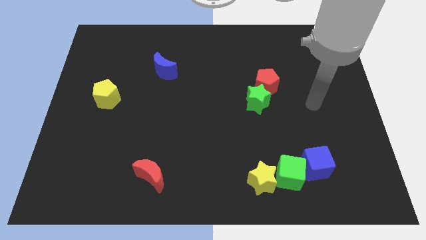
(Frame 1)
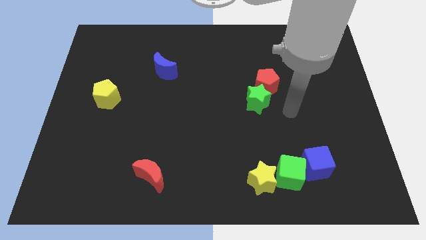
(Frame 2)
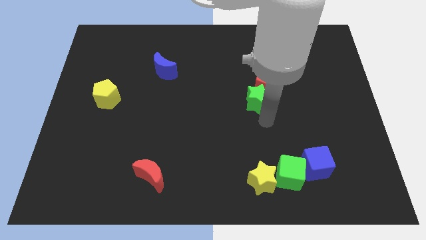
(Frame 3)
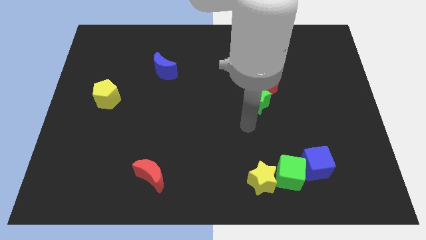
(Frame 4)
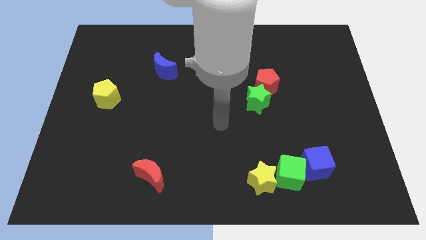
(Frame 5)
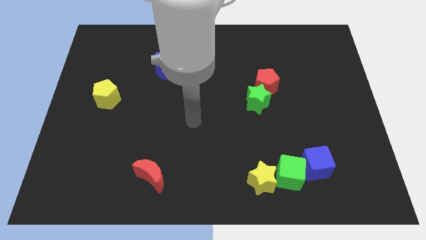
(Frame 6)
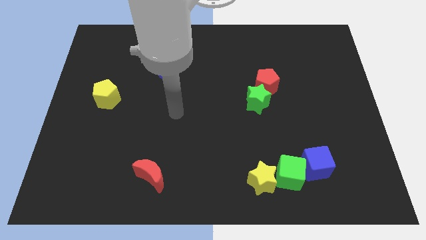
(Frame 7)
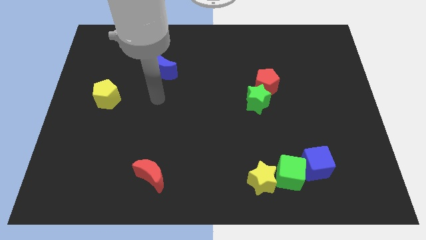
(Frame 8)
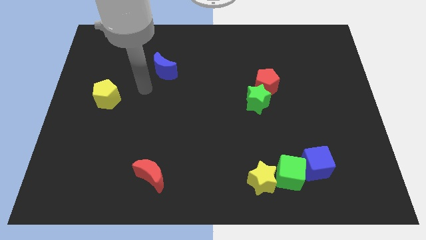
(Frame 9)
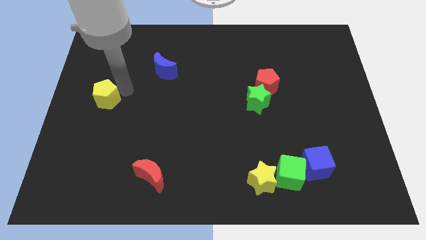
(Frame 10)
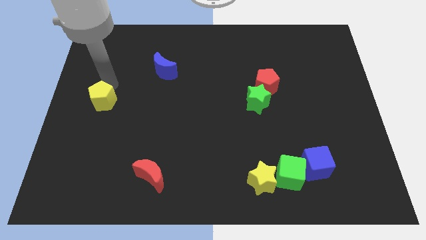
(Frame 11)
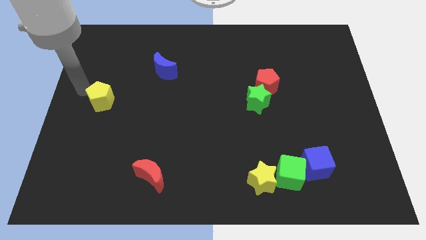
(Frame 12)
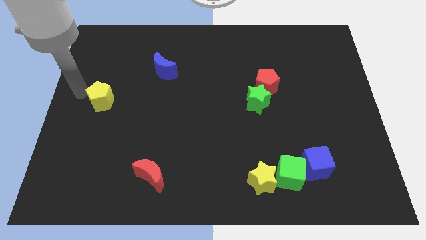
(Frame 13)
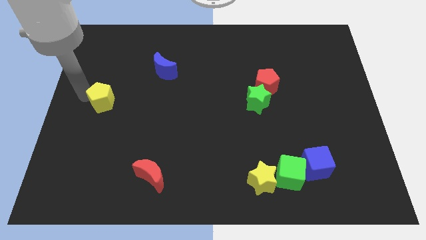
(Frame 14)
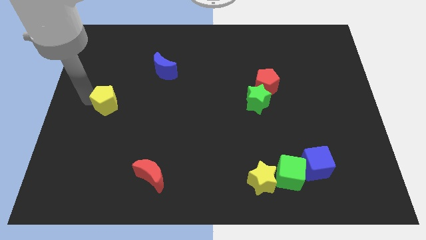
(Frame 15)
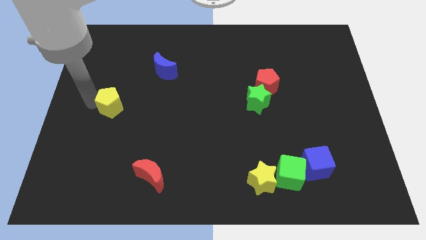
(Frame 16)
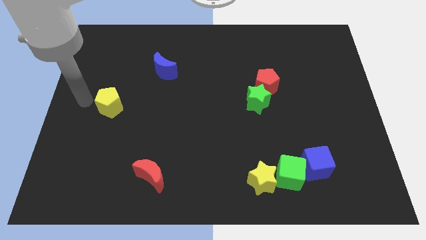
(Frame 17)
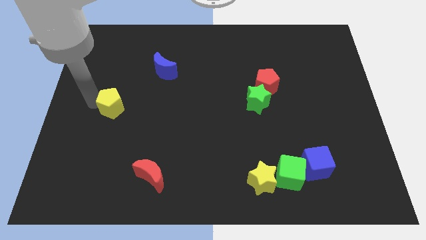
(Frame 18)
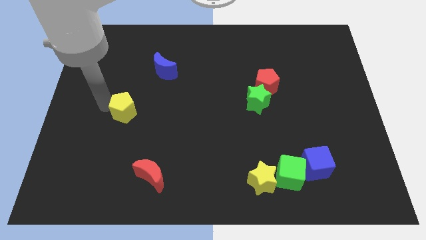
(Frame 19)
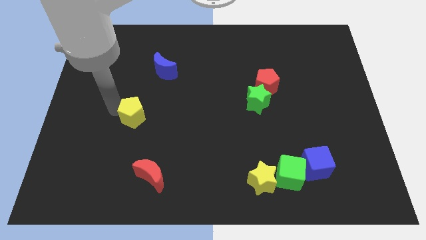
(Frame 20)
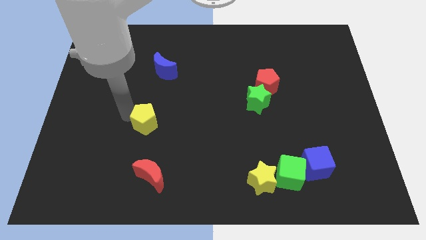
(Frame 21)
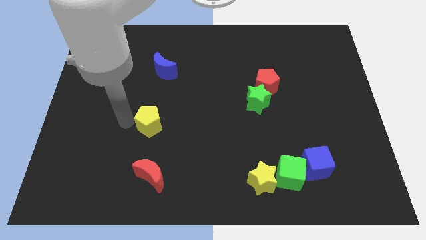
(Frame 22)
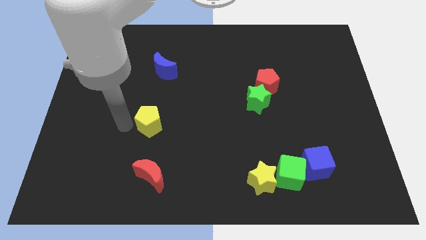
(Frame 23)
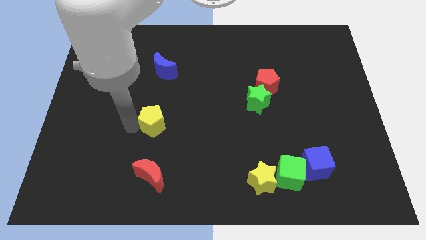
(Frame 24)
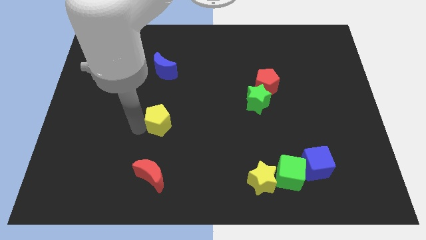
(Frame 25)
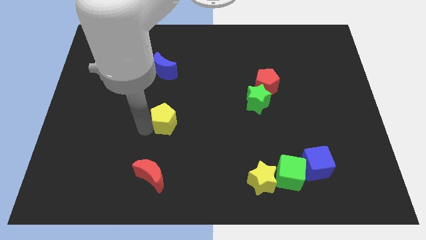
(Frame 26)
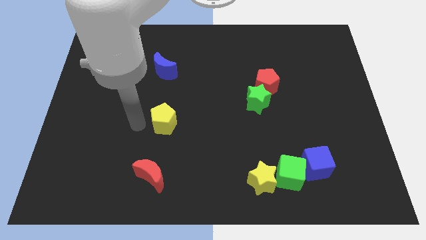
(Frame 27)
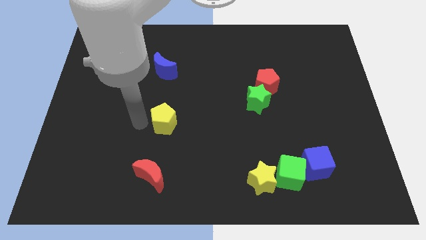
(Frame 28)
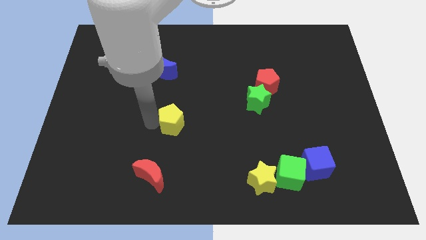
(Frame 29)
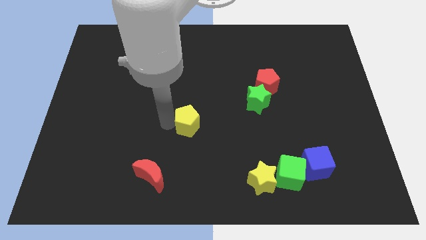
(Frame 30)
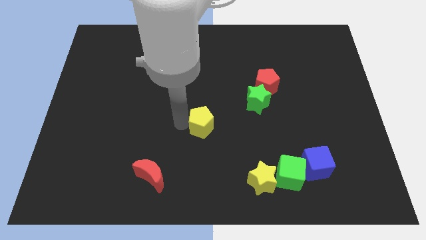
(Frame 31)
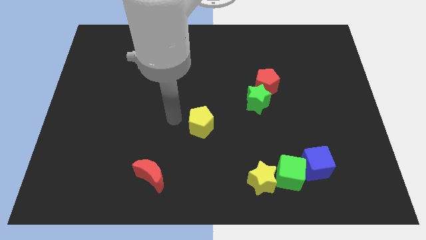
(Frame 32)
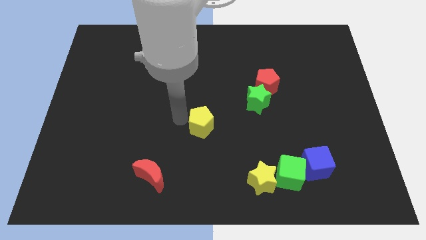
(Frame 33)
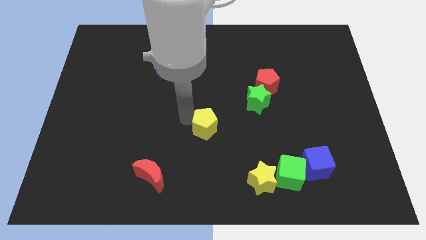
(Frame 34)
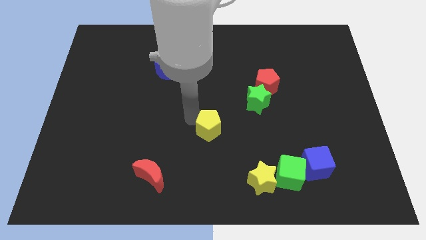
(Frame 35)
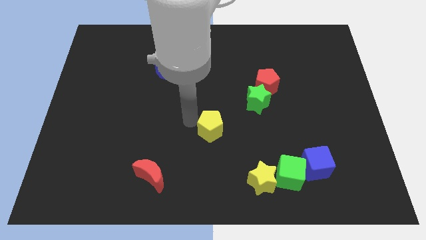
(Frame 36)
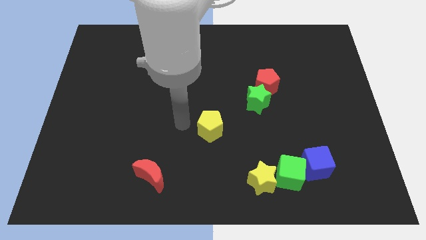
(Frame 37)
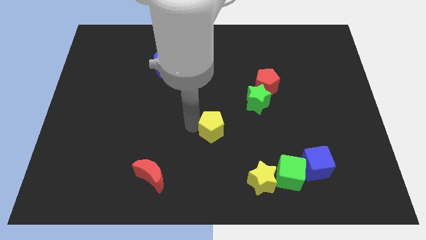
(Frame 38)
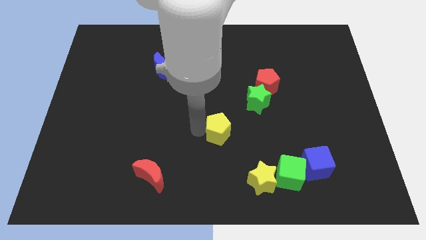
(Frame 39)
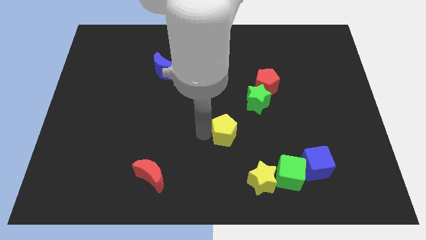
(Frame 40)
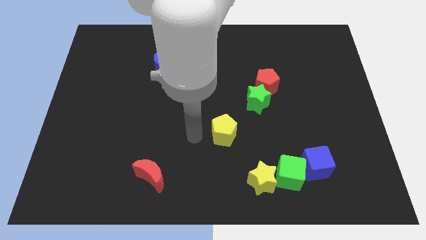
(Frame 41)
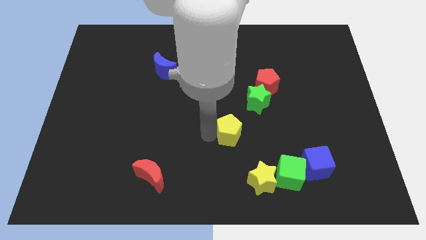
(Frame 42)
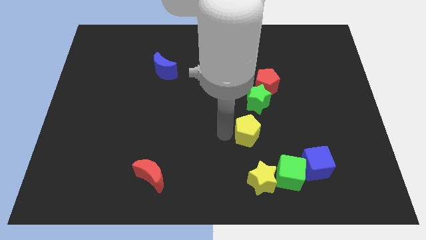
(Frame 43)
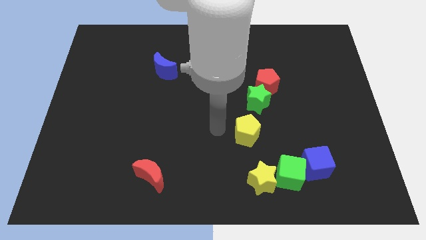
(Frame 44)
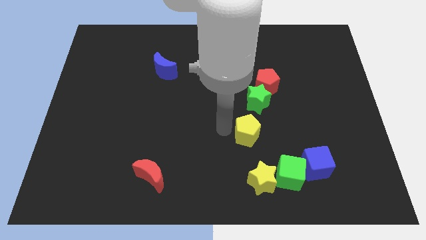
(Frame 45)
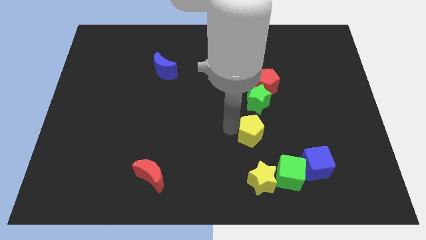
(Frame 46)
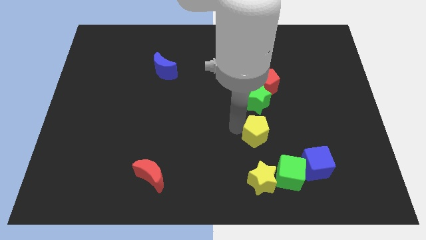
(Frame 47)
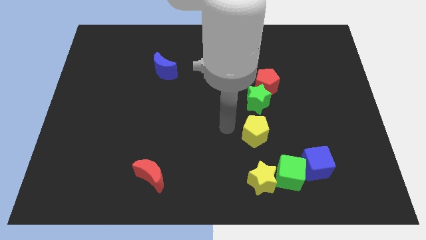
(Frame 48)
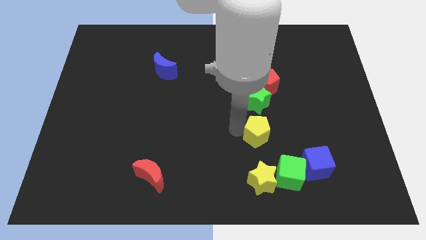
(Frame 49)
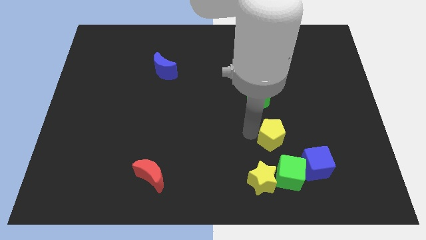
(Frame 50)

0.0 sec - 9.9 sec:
move the yellow pentagon diagonally up and to the left of the blue cube

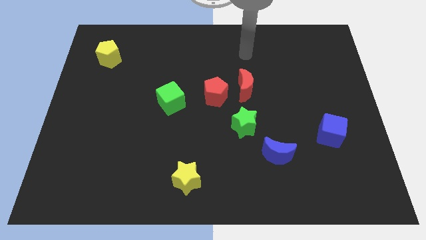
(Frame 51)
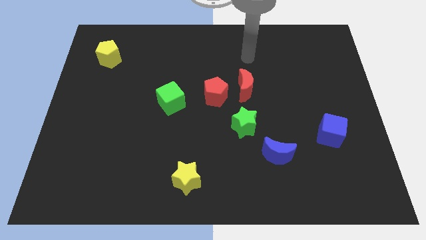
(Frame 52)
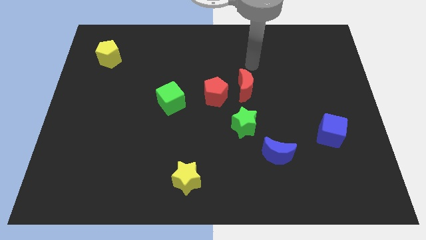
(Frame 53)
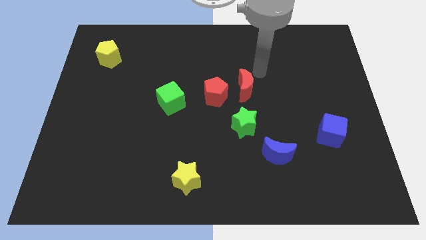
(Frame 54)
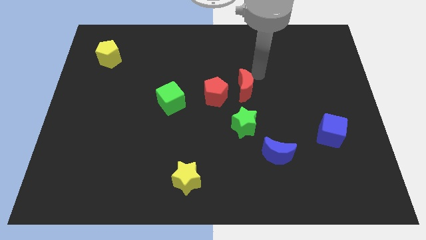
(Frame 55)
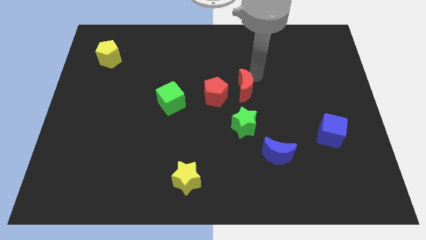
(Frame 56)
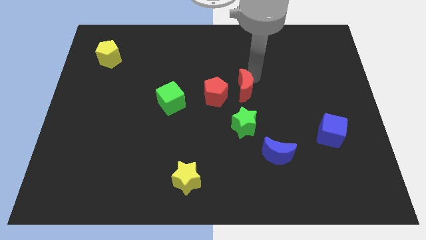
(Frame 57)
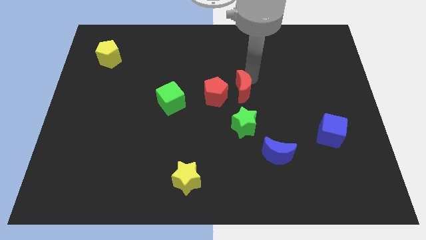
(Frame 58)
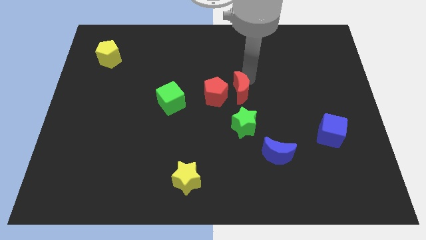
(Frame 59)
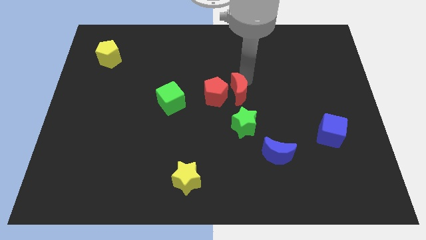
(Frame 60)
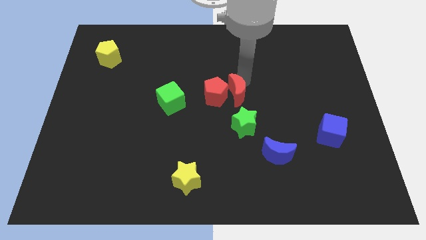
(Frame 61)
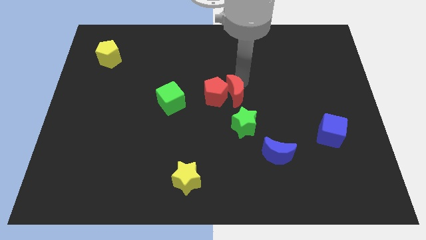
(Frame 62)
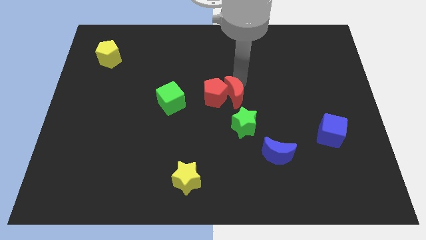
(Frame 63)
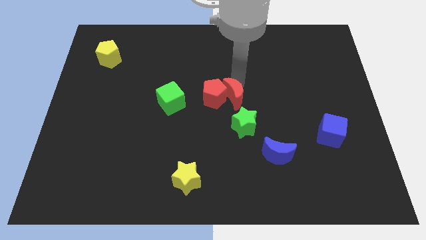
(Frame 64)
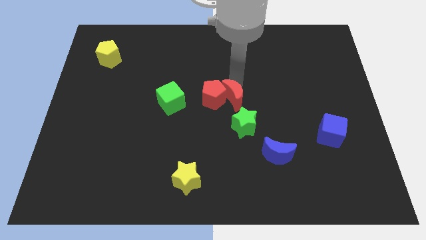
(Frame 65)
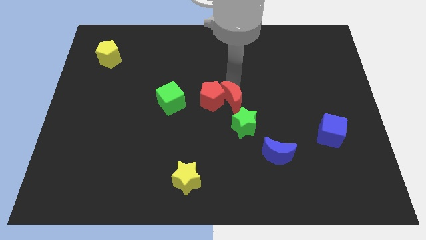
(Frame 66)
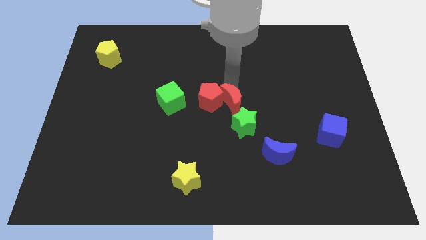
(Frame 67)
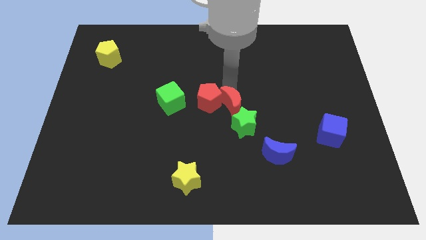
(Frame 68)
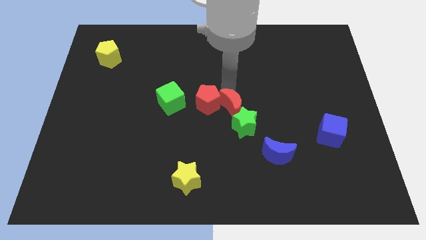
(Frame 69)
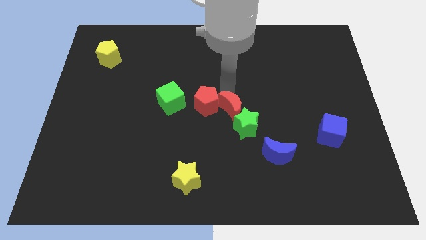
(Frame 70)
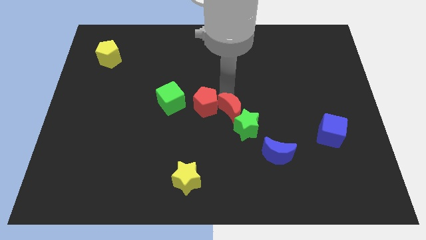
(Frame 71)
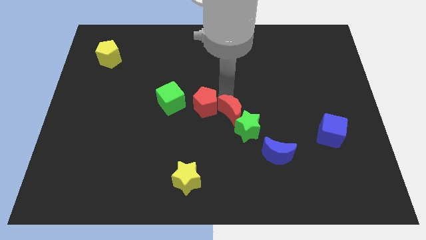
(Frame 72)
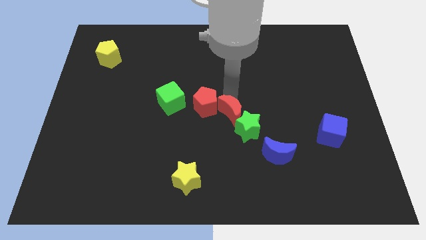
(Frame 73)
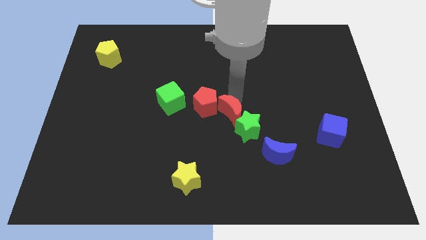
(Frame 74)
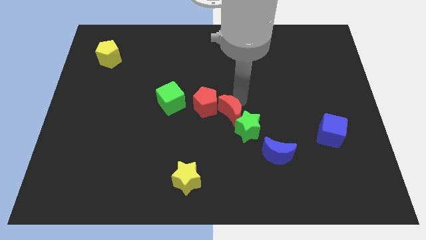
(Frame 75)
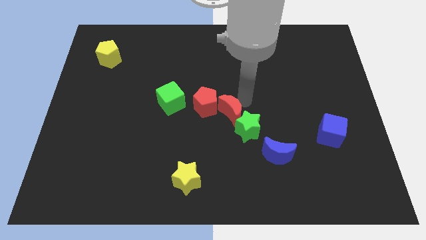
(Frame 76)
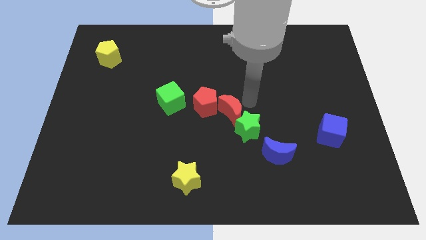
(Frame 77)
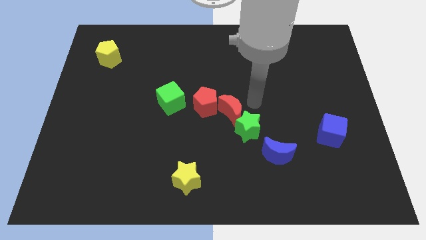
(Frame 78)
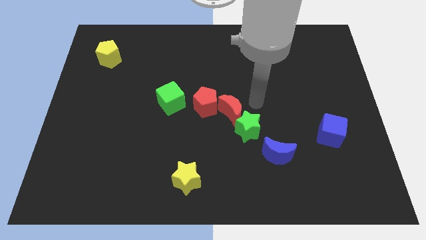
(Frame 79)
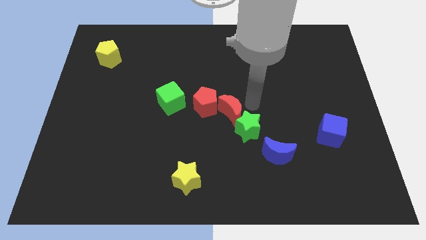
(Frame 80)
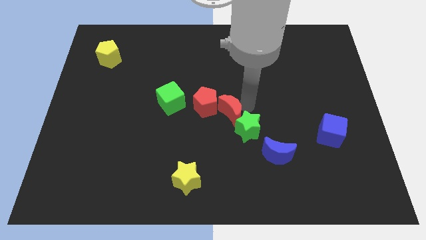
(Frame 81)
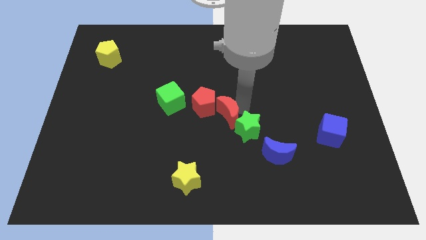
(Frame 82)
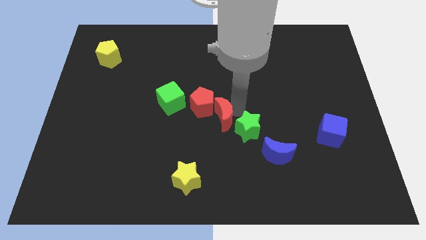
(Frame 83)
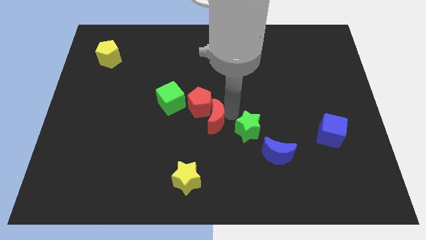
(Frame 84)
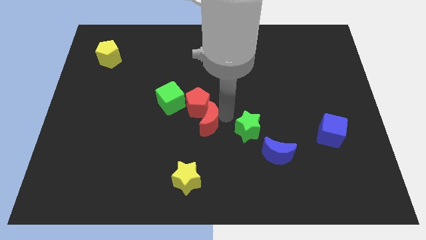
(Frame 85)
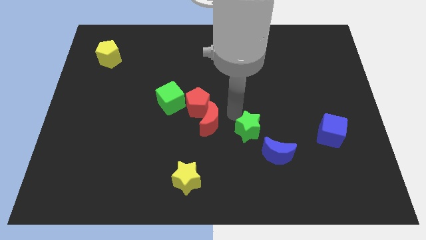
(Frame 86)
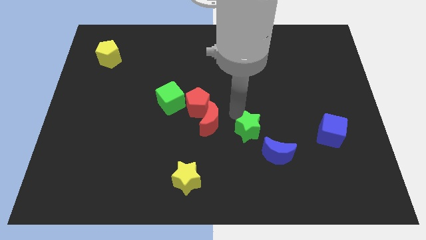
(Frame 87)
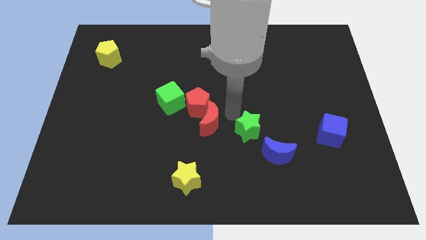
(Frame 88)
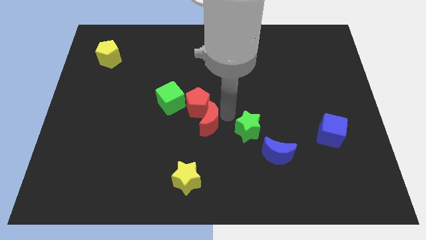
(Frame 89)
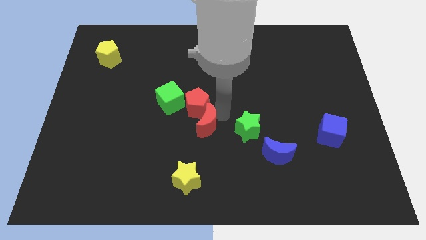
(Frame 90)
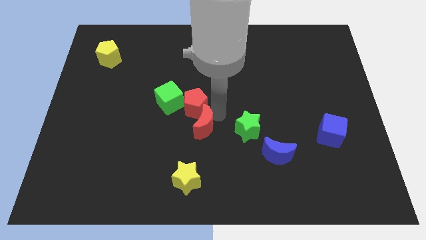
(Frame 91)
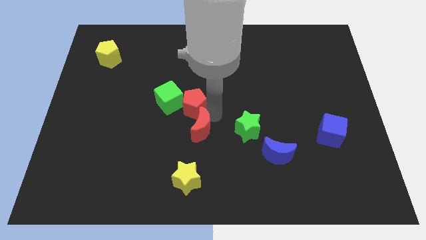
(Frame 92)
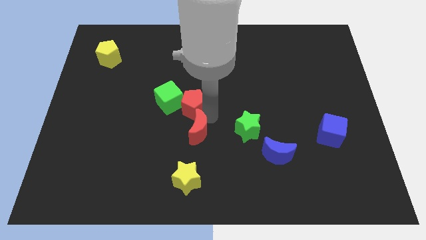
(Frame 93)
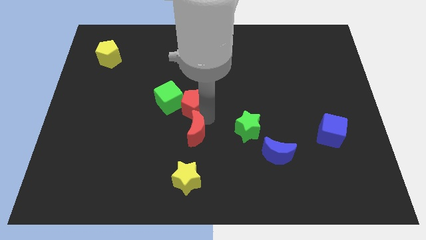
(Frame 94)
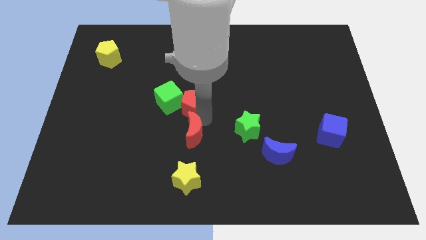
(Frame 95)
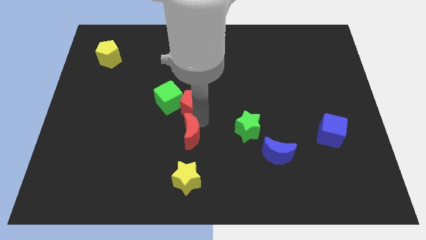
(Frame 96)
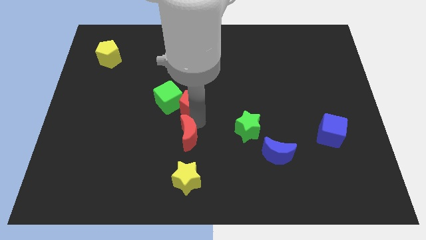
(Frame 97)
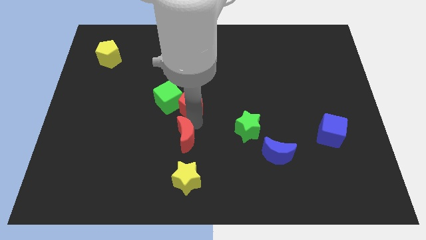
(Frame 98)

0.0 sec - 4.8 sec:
put the red moon to the bottom of the green cube
